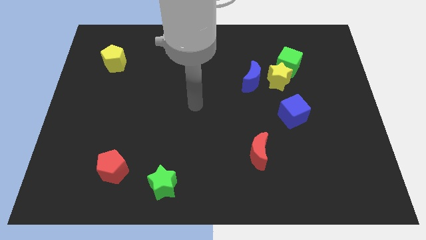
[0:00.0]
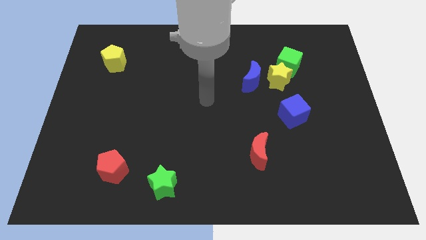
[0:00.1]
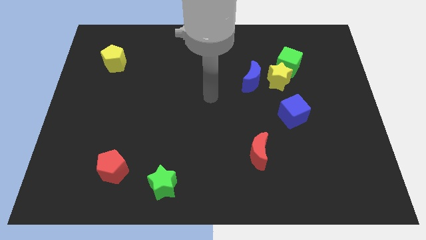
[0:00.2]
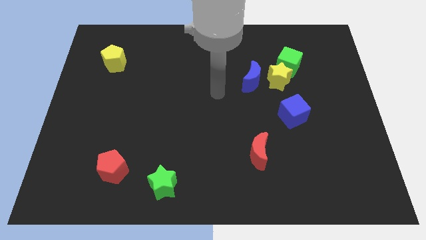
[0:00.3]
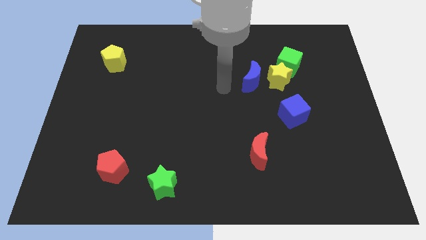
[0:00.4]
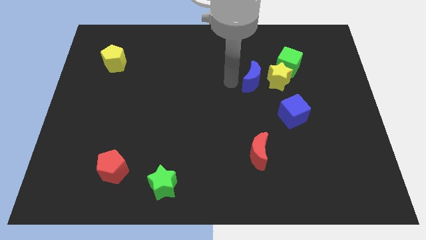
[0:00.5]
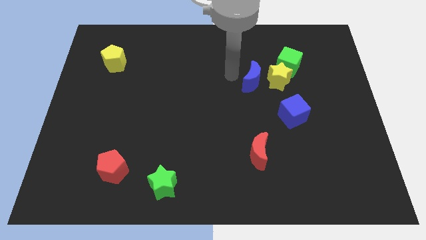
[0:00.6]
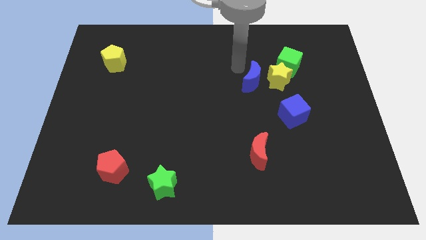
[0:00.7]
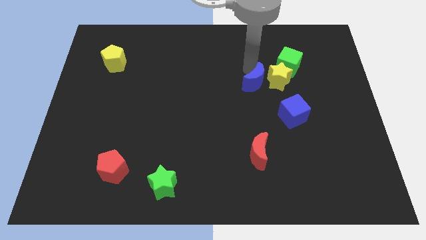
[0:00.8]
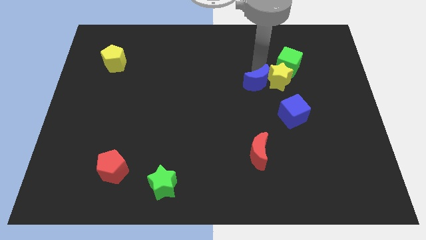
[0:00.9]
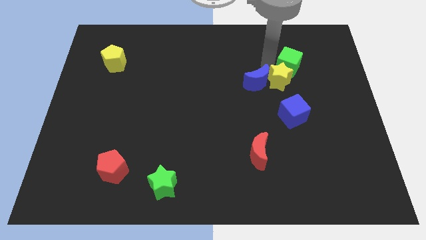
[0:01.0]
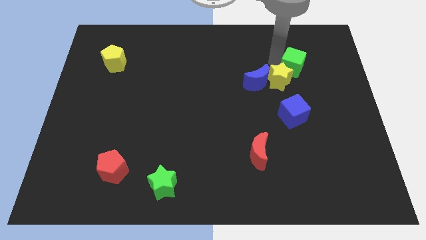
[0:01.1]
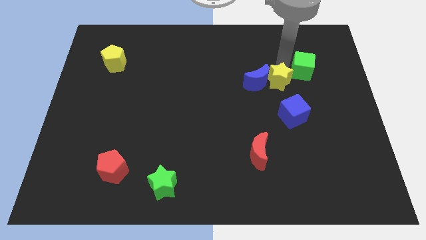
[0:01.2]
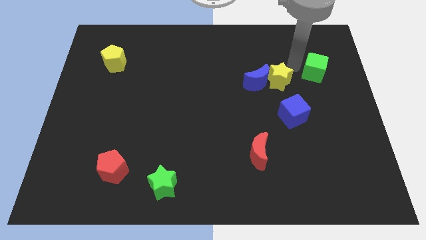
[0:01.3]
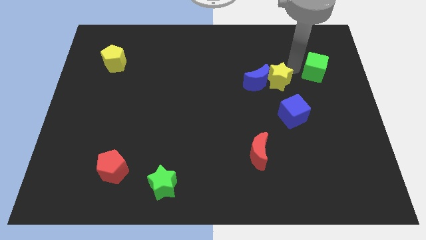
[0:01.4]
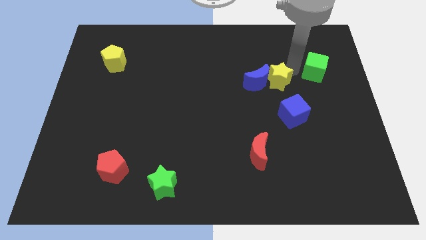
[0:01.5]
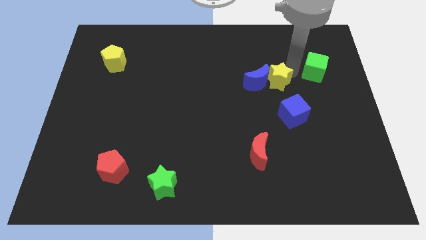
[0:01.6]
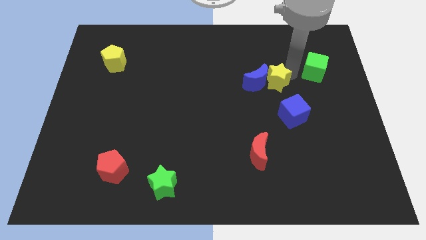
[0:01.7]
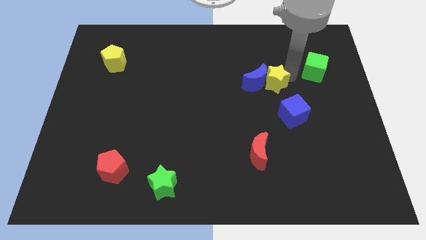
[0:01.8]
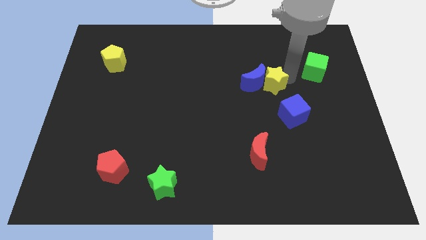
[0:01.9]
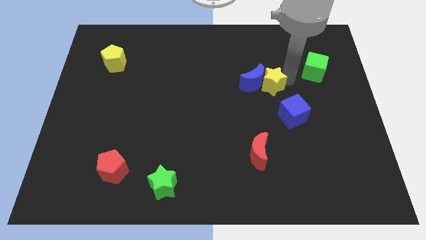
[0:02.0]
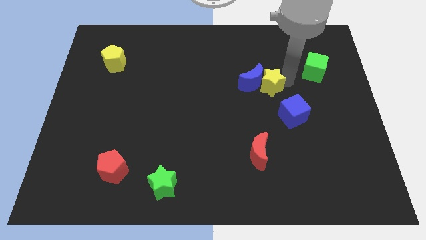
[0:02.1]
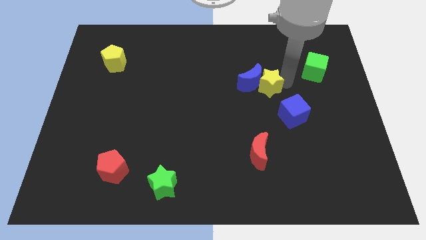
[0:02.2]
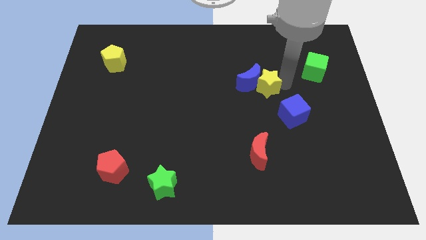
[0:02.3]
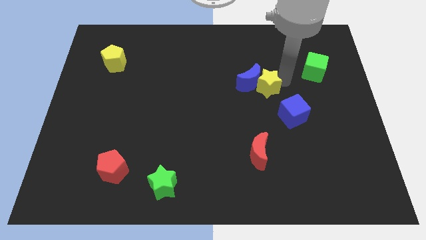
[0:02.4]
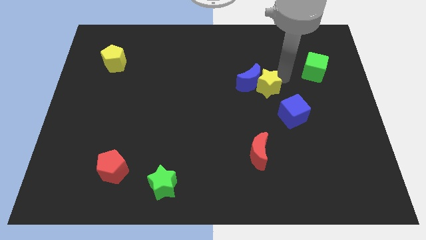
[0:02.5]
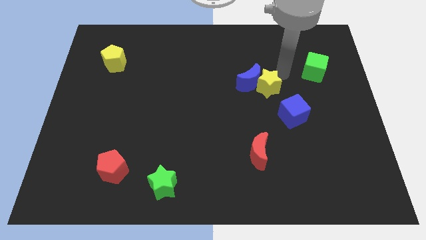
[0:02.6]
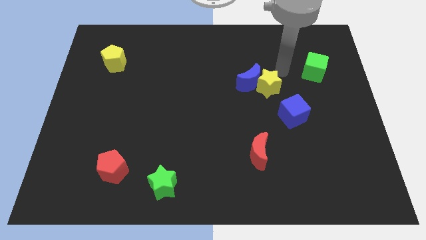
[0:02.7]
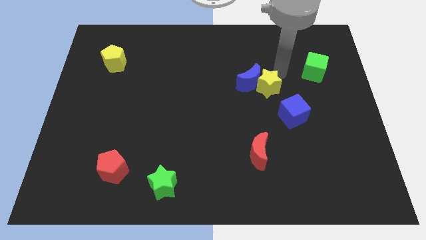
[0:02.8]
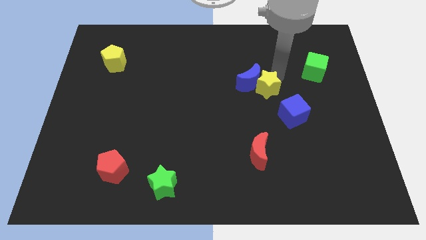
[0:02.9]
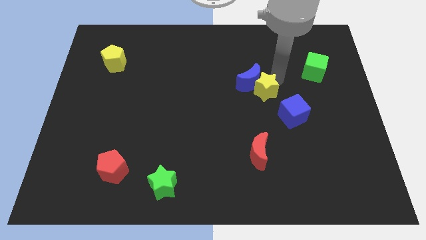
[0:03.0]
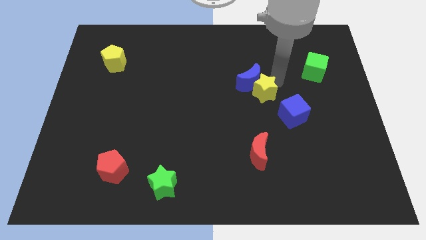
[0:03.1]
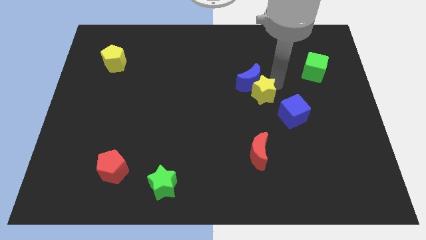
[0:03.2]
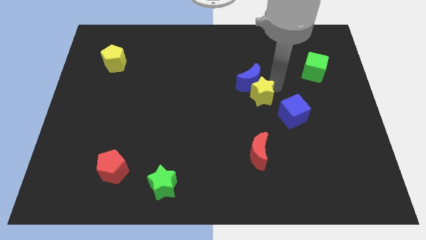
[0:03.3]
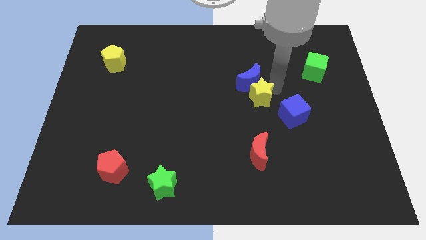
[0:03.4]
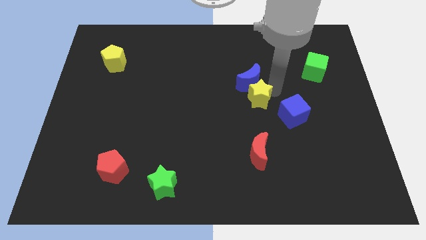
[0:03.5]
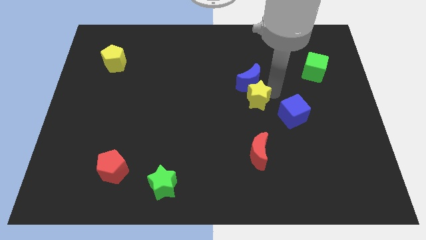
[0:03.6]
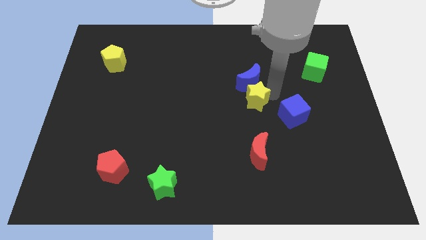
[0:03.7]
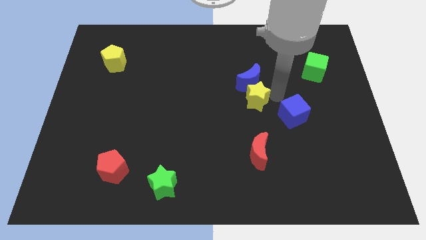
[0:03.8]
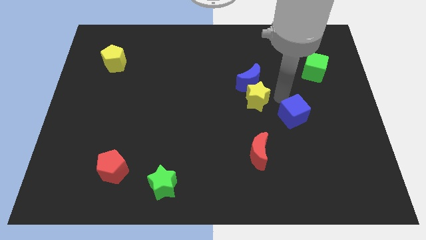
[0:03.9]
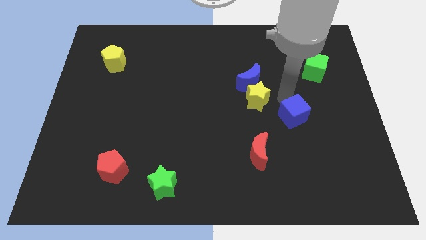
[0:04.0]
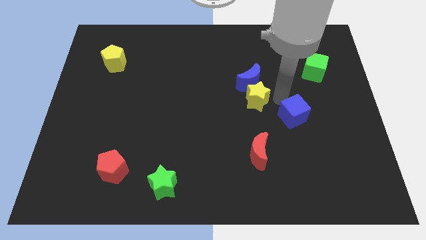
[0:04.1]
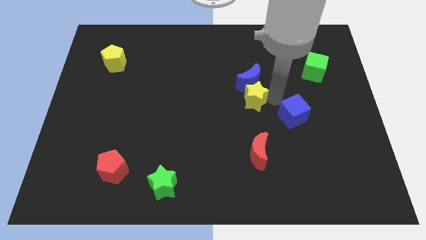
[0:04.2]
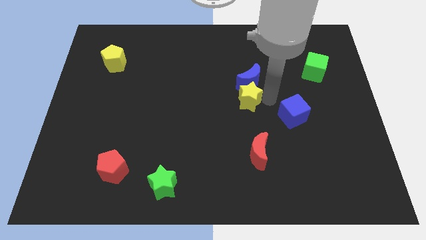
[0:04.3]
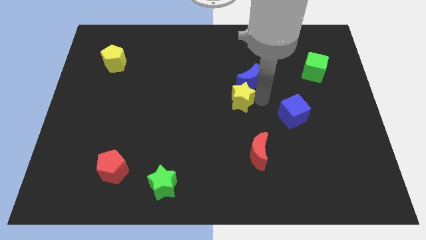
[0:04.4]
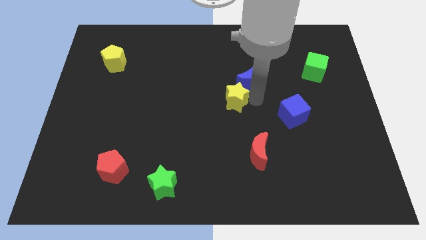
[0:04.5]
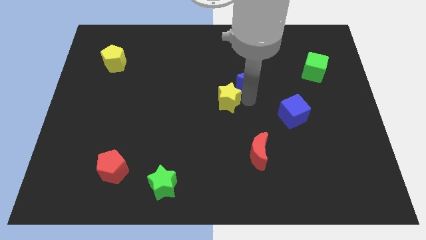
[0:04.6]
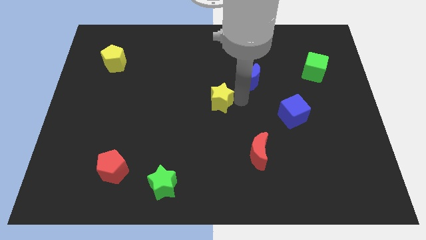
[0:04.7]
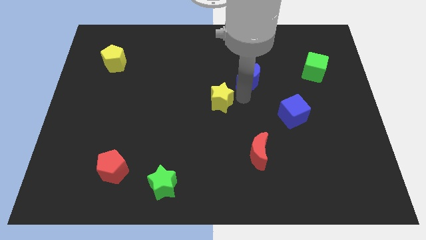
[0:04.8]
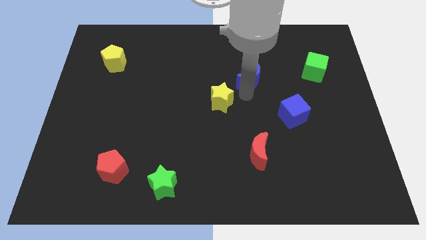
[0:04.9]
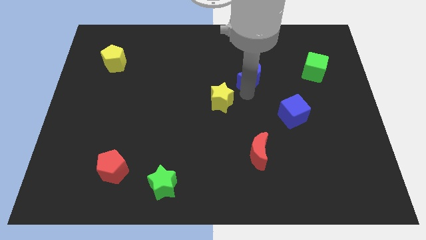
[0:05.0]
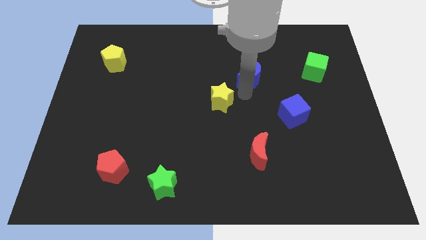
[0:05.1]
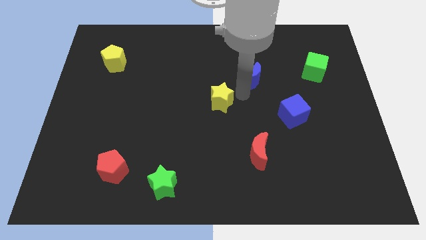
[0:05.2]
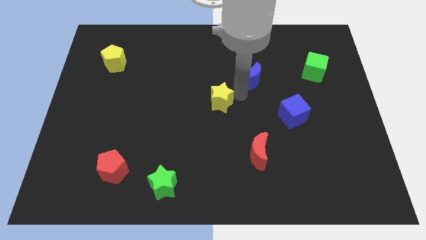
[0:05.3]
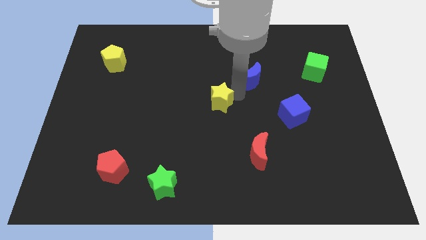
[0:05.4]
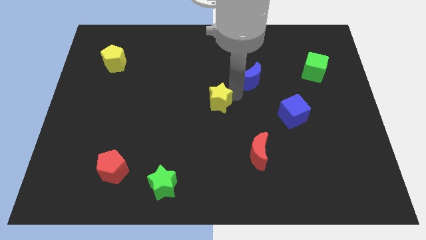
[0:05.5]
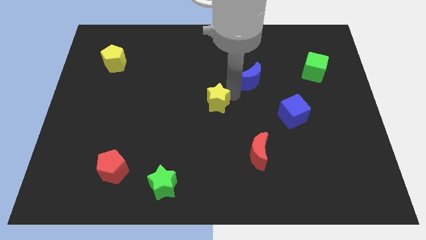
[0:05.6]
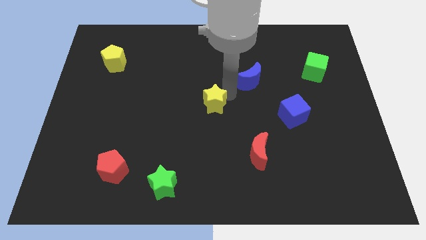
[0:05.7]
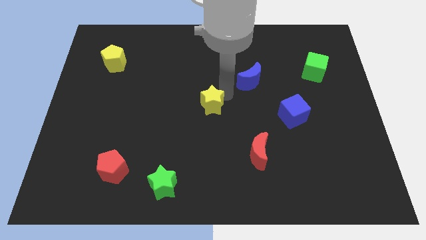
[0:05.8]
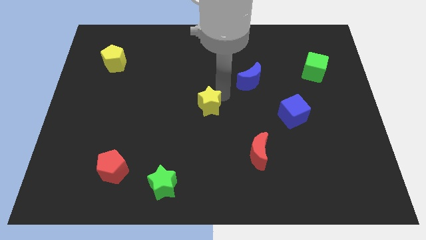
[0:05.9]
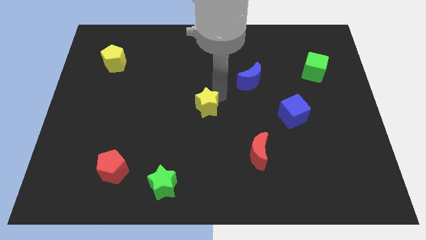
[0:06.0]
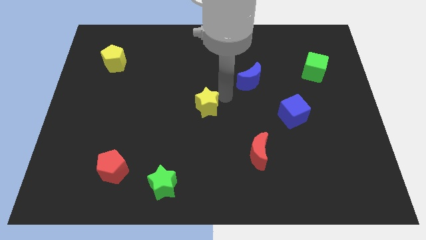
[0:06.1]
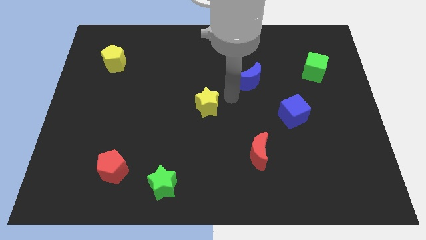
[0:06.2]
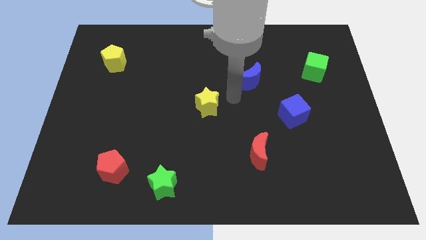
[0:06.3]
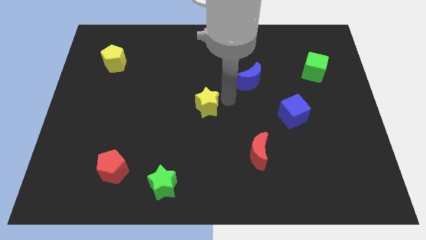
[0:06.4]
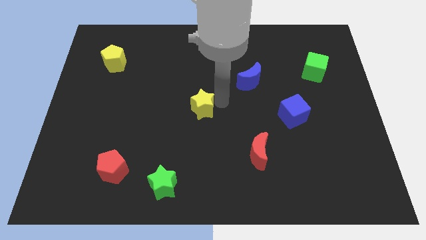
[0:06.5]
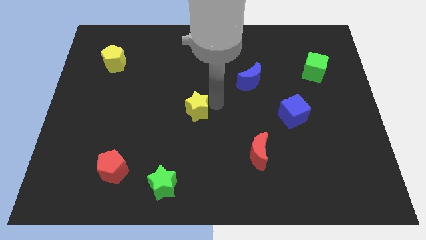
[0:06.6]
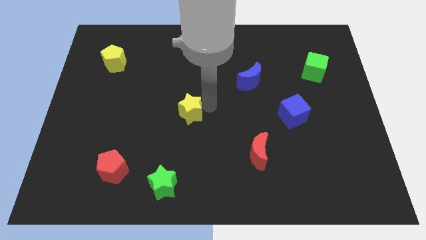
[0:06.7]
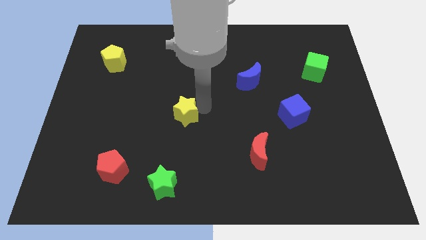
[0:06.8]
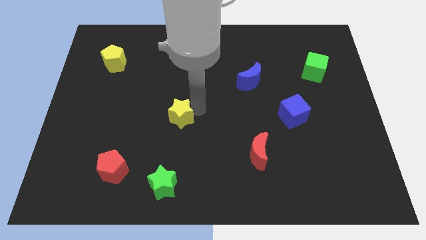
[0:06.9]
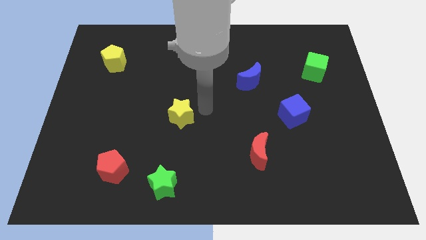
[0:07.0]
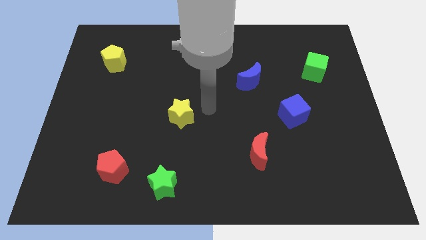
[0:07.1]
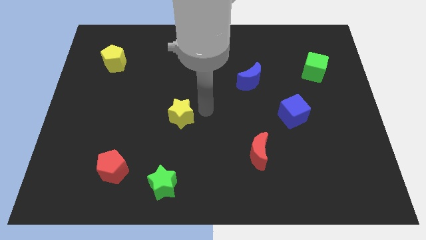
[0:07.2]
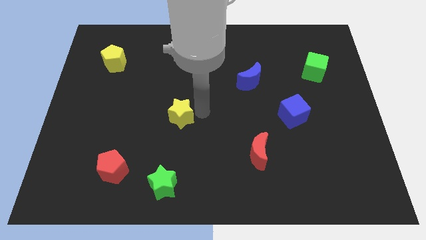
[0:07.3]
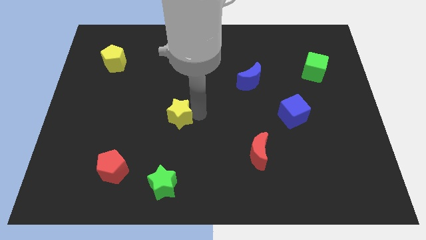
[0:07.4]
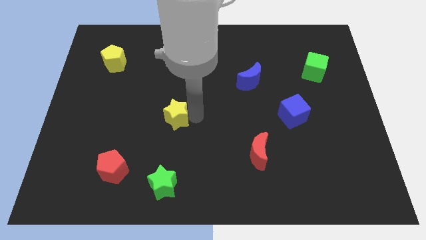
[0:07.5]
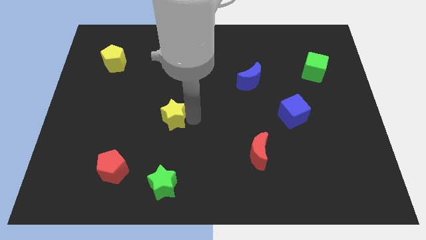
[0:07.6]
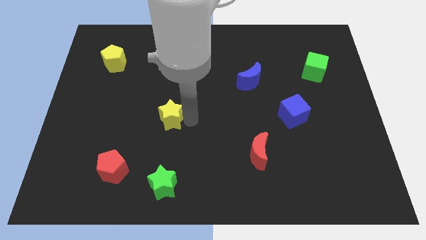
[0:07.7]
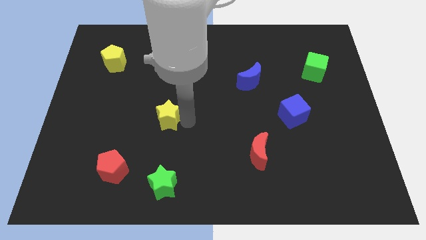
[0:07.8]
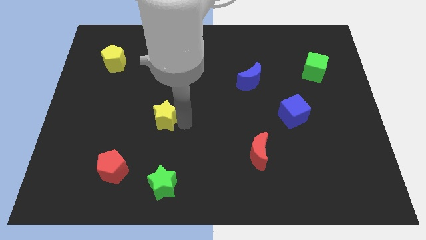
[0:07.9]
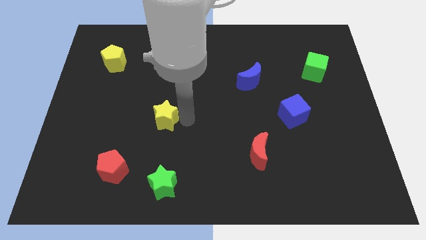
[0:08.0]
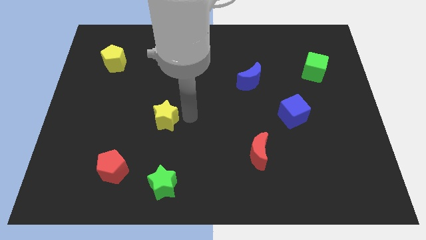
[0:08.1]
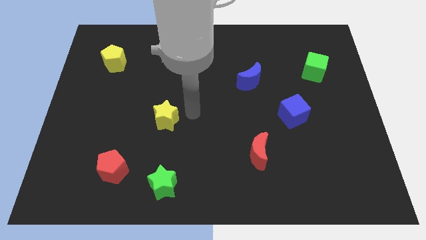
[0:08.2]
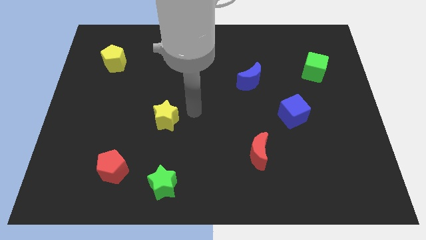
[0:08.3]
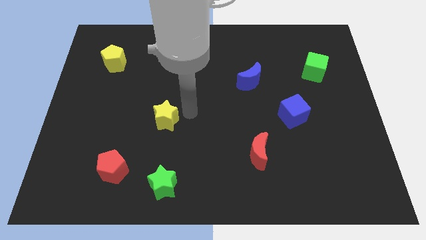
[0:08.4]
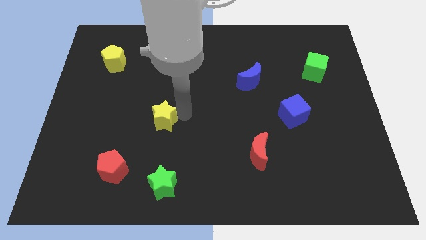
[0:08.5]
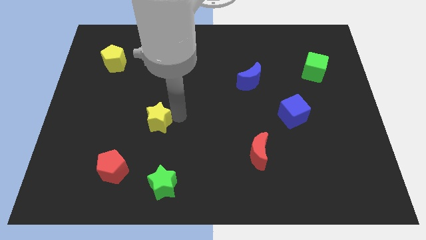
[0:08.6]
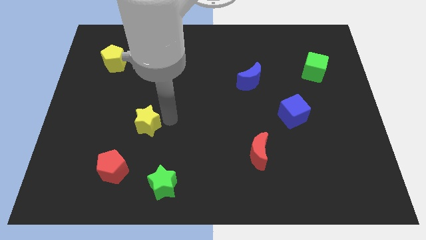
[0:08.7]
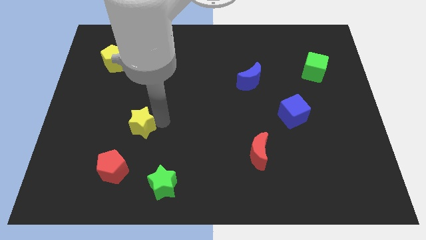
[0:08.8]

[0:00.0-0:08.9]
push the yellow star above the red pentagon
